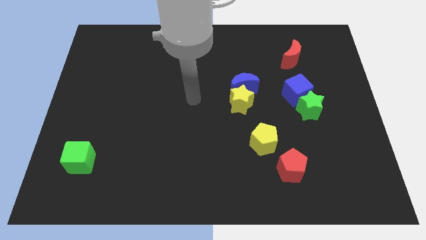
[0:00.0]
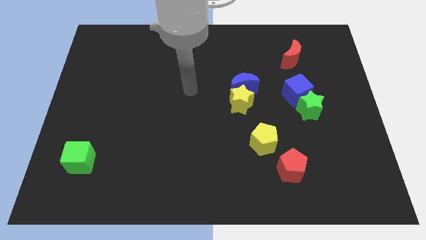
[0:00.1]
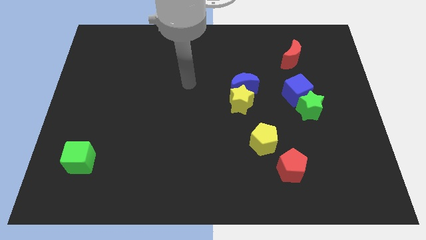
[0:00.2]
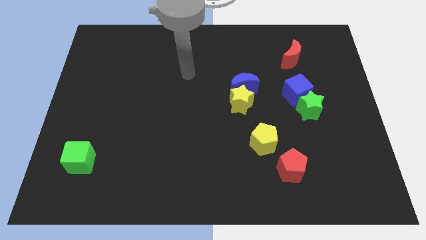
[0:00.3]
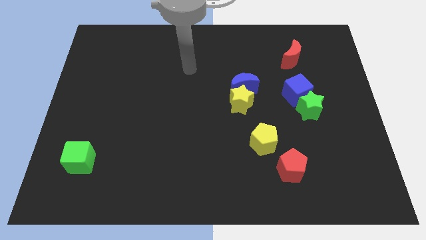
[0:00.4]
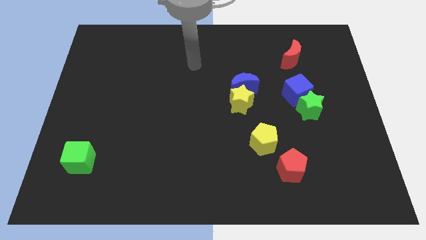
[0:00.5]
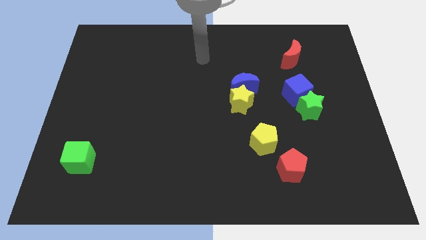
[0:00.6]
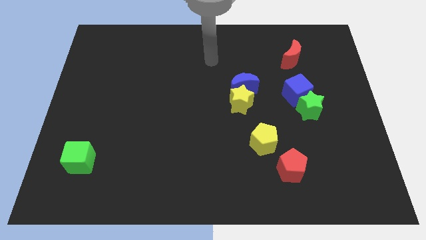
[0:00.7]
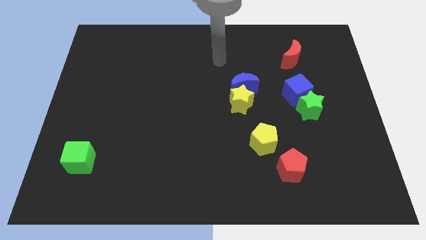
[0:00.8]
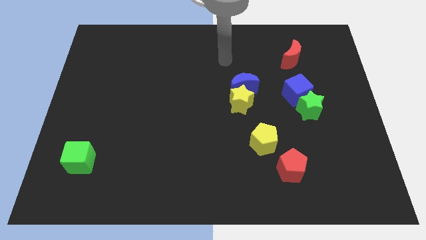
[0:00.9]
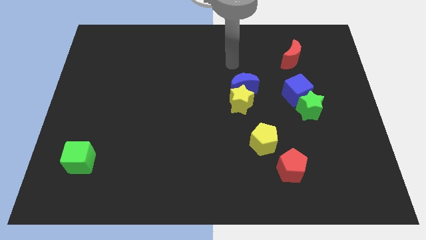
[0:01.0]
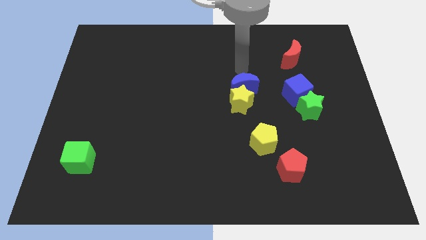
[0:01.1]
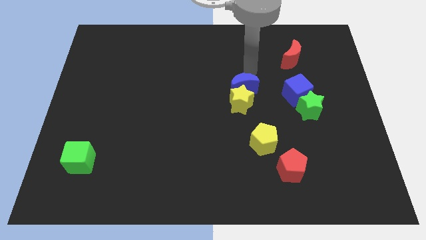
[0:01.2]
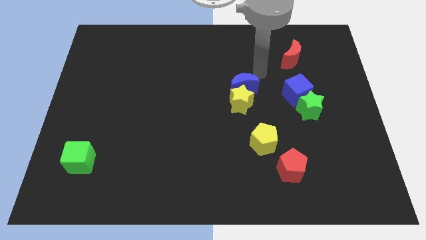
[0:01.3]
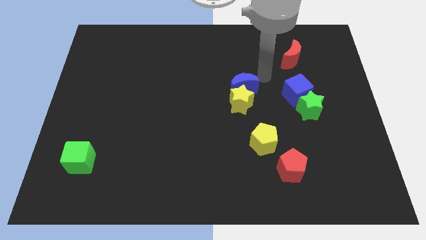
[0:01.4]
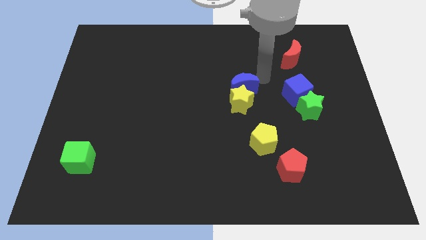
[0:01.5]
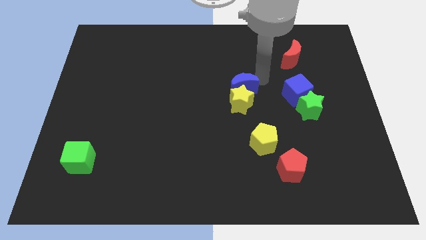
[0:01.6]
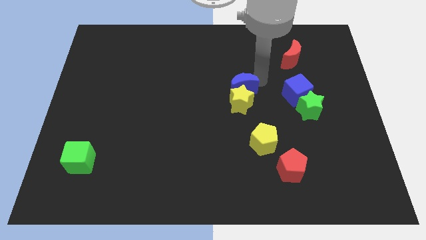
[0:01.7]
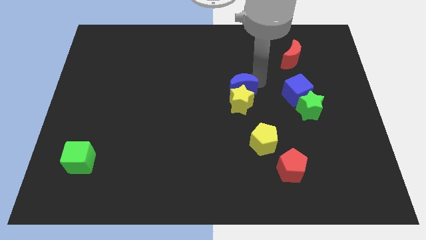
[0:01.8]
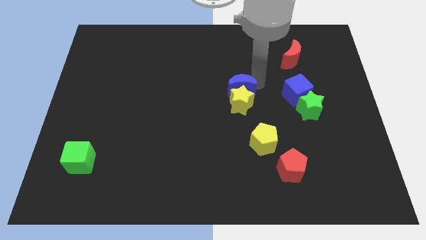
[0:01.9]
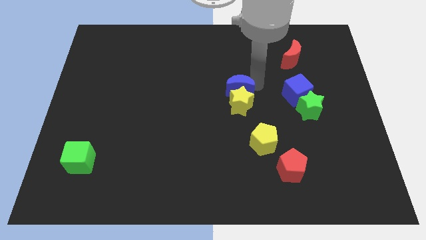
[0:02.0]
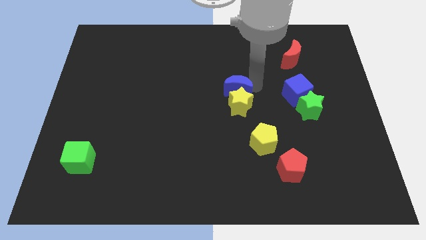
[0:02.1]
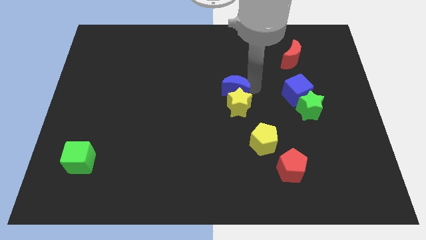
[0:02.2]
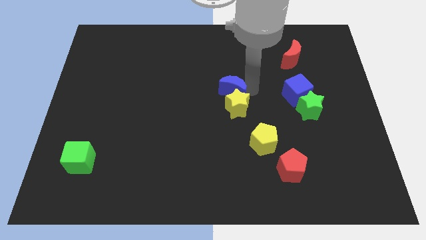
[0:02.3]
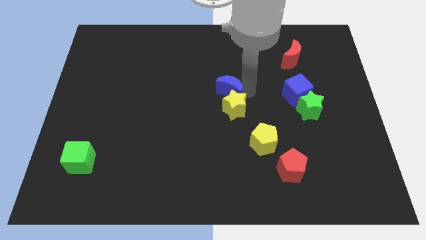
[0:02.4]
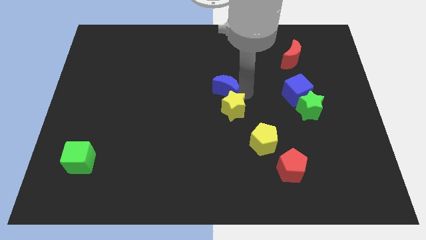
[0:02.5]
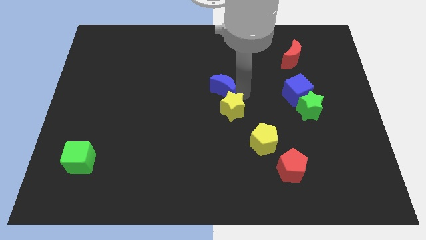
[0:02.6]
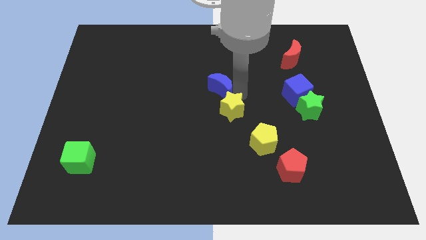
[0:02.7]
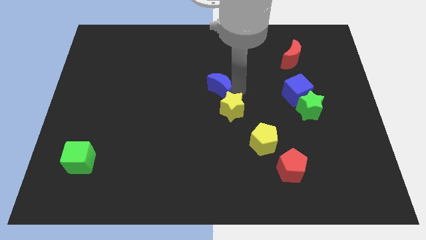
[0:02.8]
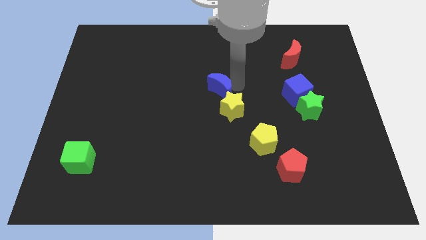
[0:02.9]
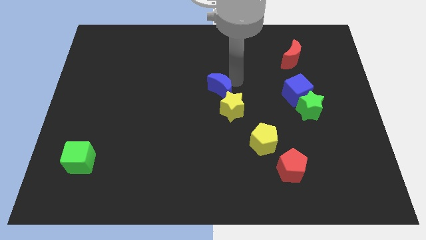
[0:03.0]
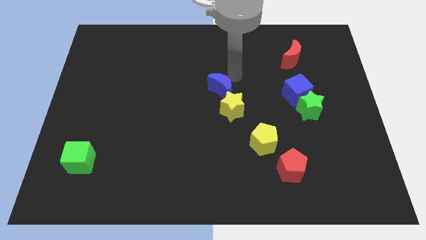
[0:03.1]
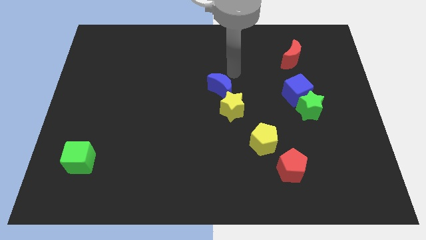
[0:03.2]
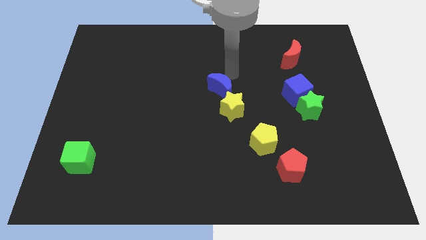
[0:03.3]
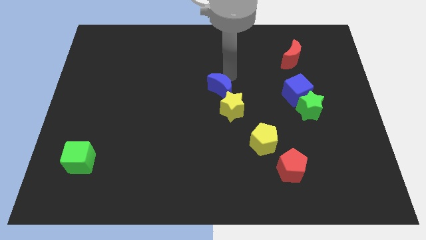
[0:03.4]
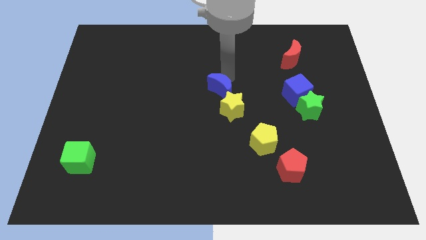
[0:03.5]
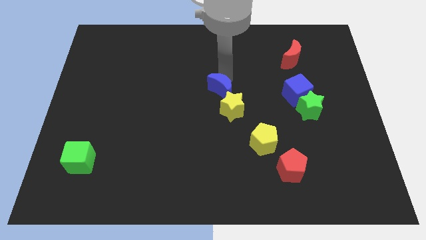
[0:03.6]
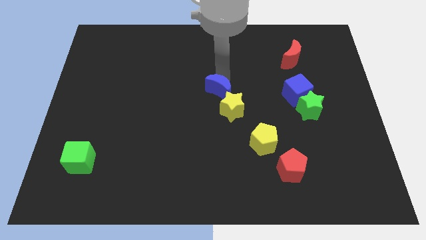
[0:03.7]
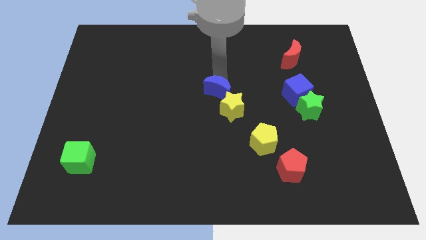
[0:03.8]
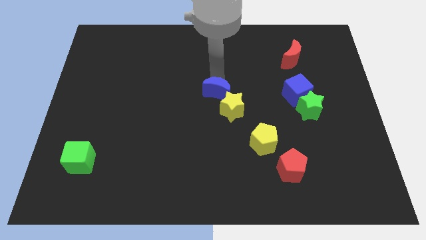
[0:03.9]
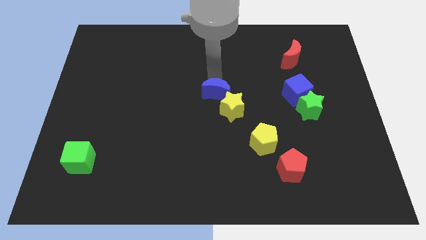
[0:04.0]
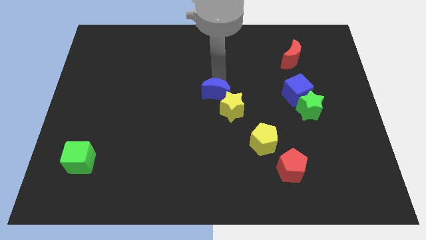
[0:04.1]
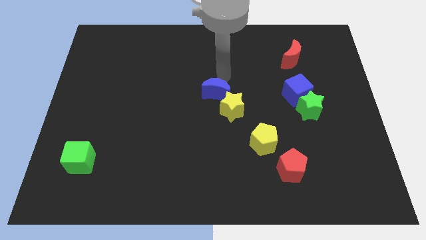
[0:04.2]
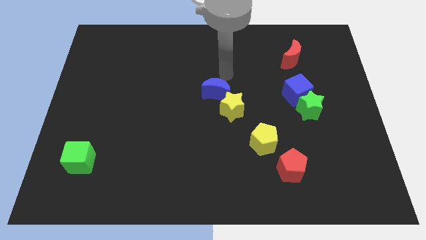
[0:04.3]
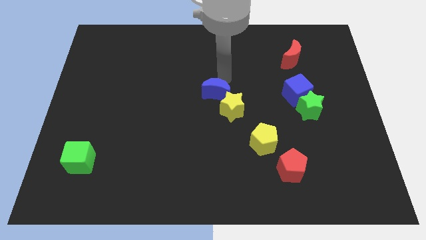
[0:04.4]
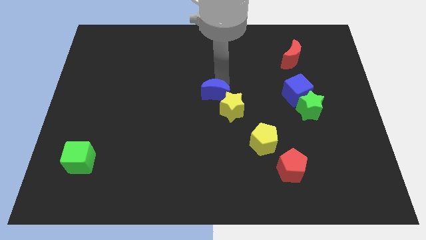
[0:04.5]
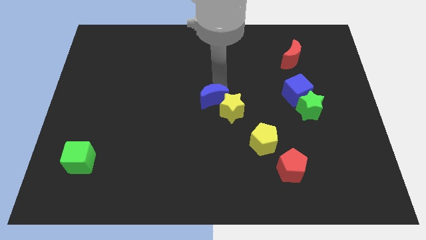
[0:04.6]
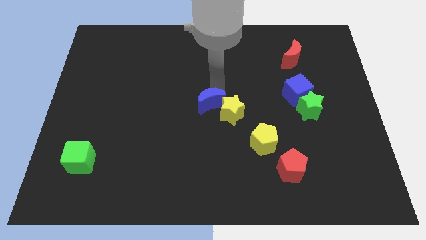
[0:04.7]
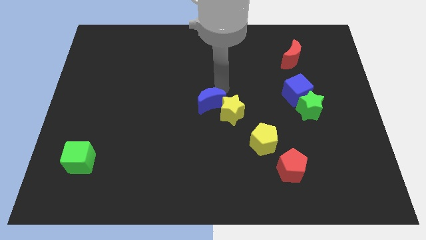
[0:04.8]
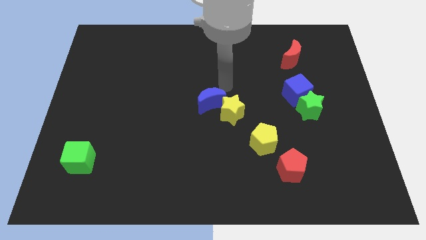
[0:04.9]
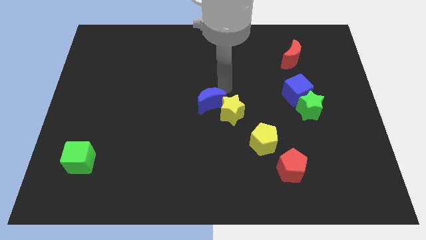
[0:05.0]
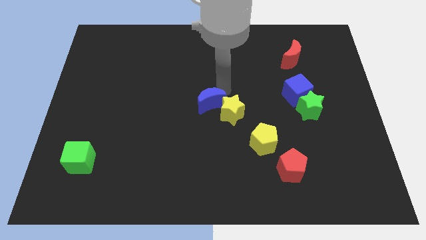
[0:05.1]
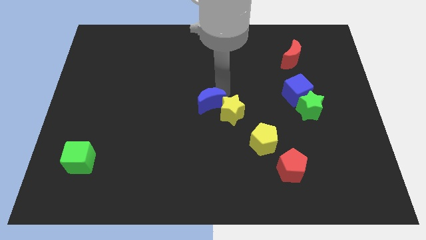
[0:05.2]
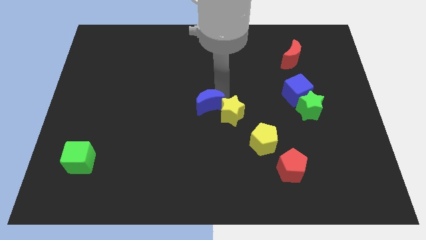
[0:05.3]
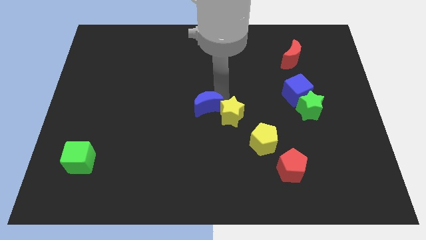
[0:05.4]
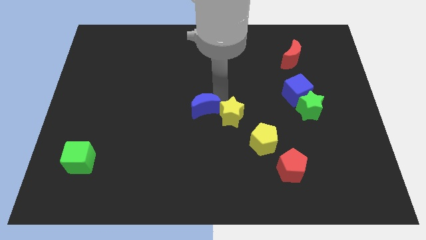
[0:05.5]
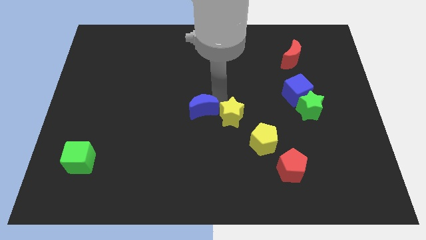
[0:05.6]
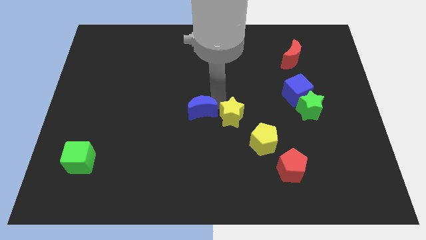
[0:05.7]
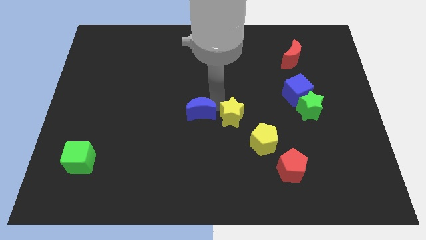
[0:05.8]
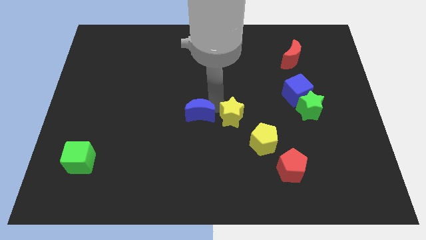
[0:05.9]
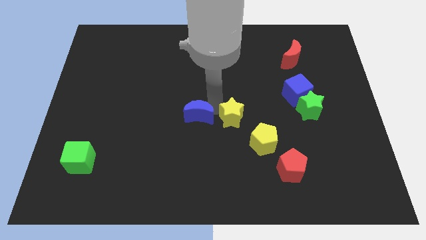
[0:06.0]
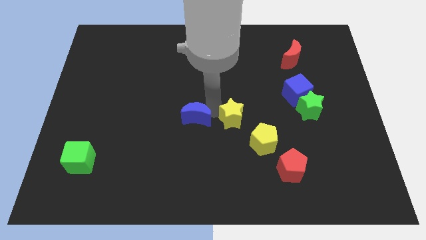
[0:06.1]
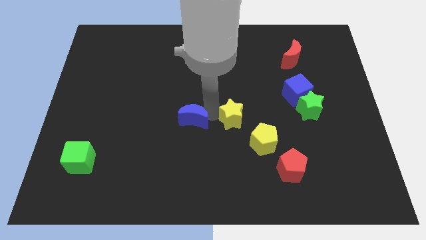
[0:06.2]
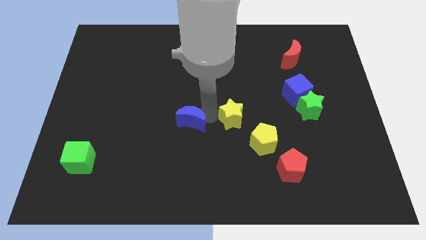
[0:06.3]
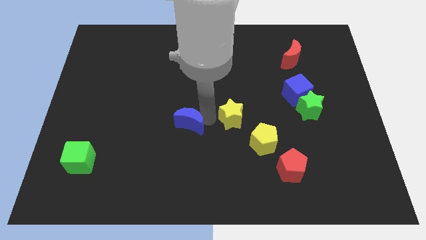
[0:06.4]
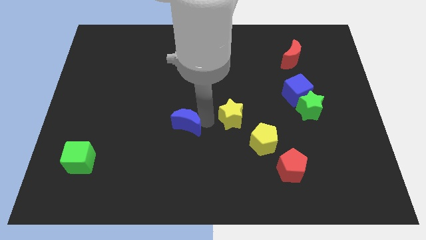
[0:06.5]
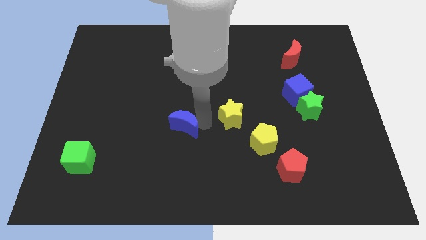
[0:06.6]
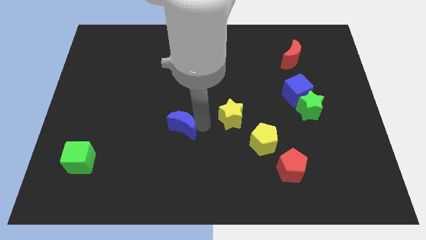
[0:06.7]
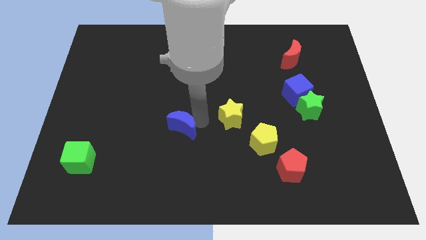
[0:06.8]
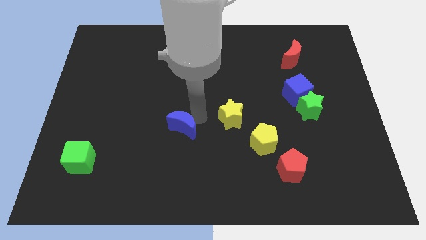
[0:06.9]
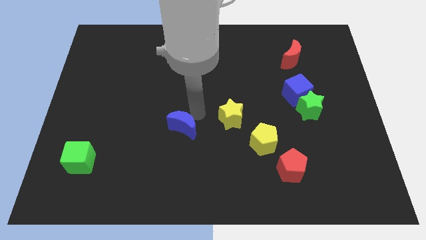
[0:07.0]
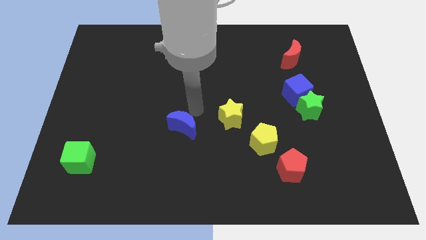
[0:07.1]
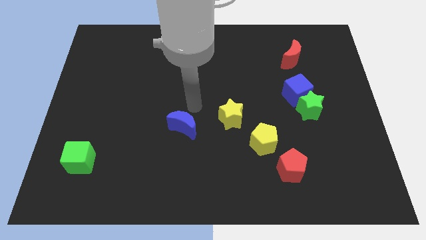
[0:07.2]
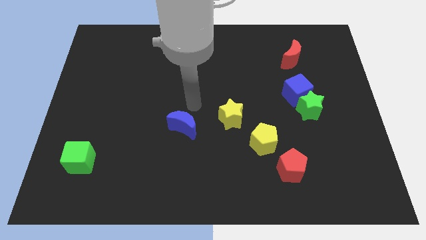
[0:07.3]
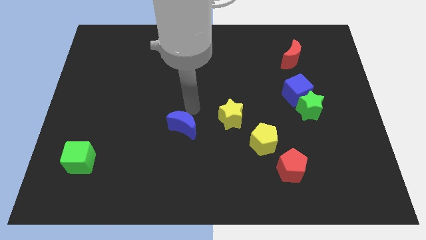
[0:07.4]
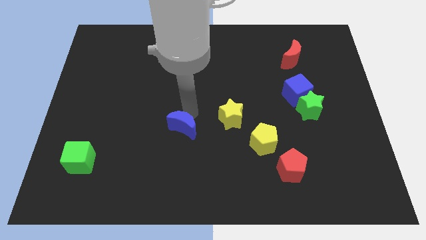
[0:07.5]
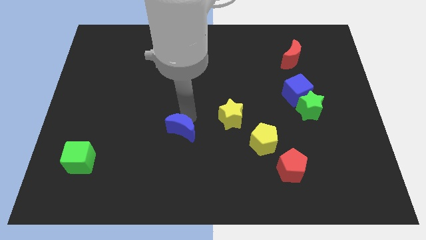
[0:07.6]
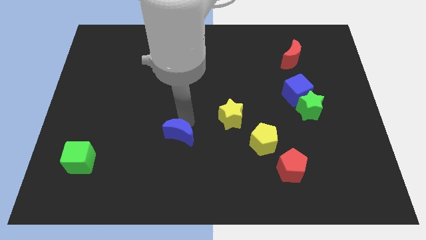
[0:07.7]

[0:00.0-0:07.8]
move the blue moon downwards and to the left diagonally

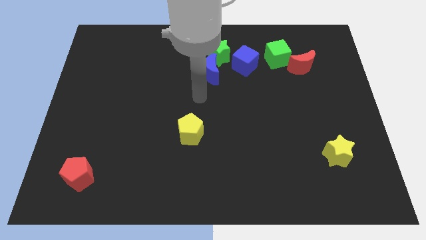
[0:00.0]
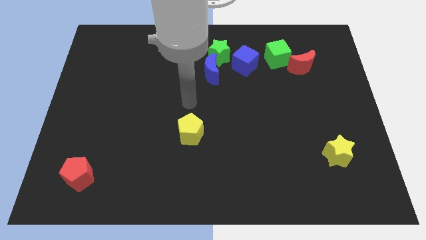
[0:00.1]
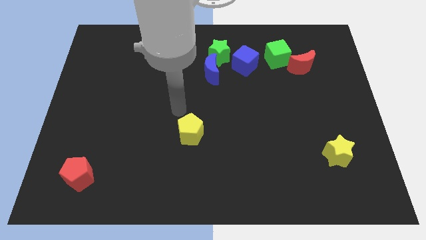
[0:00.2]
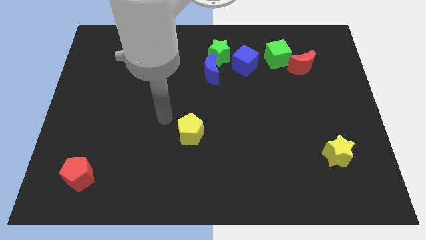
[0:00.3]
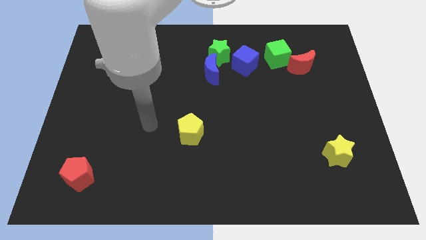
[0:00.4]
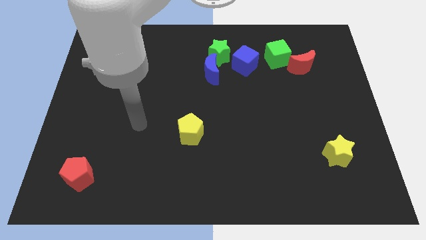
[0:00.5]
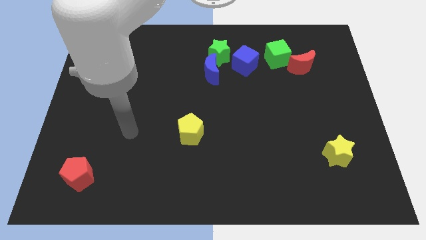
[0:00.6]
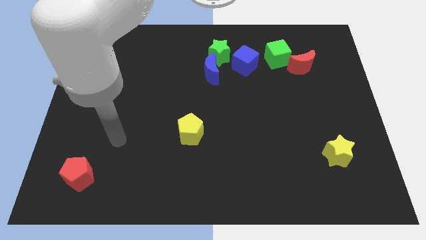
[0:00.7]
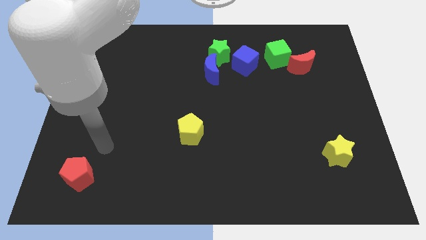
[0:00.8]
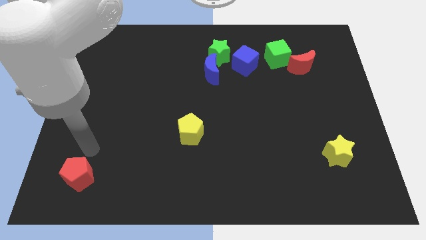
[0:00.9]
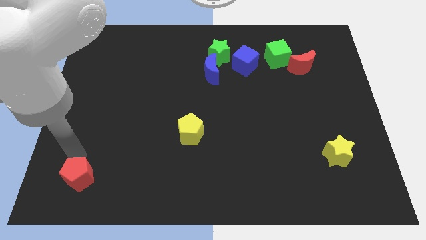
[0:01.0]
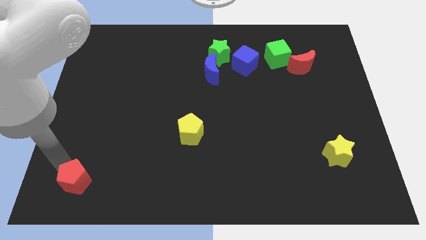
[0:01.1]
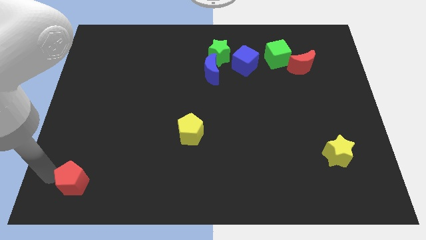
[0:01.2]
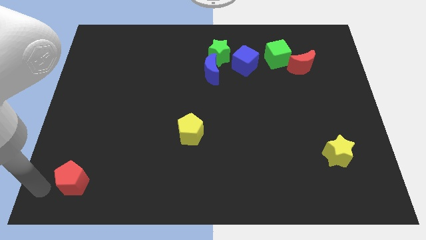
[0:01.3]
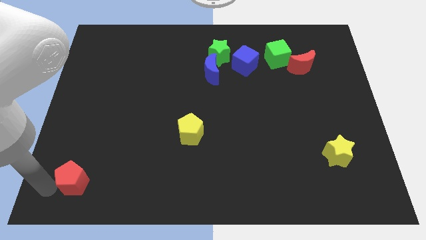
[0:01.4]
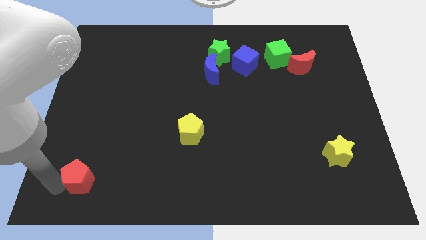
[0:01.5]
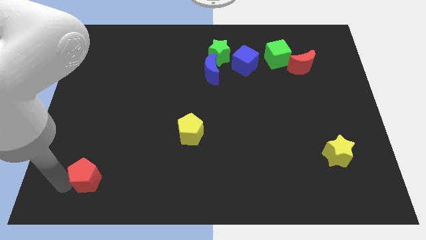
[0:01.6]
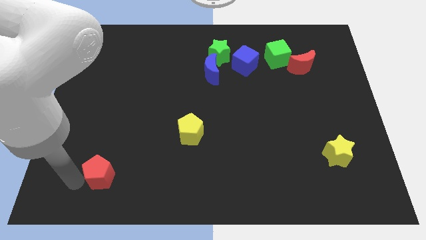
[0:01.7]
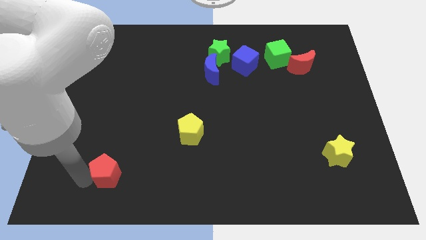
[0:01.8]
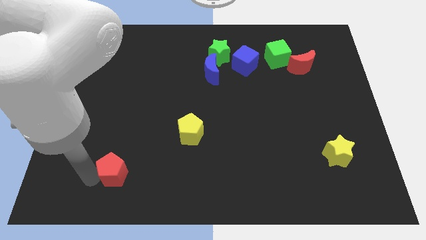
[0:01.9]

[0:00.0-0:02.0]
slightly slide the red pentagon to the right
